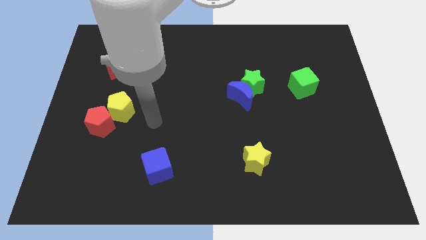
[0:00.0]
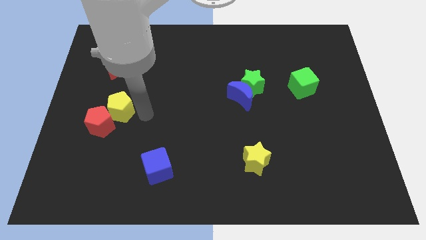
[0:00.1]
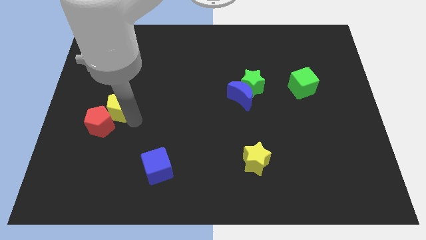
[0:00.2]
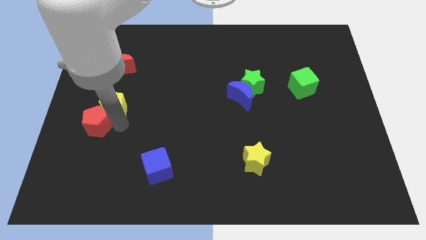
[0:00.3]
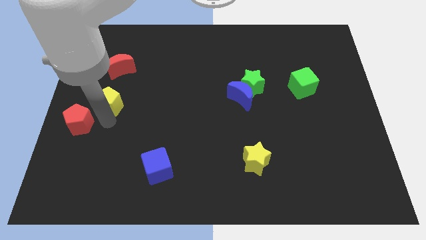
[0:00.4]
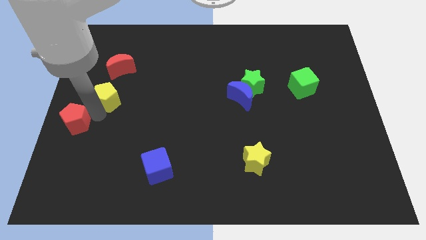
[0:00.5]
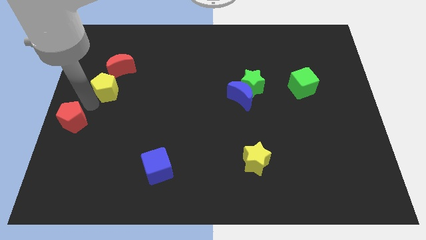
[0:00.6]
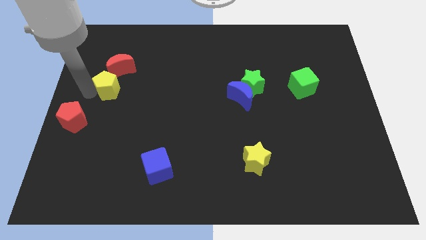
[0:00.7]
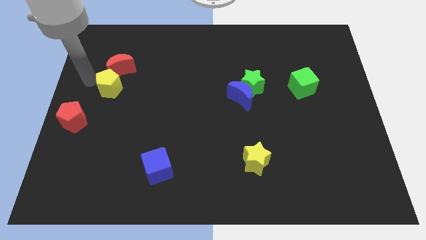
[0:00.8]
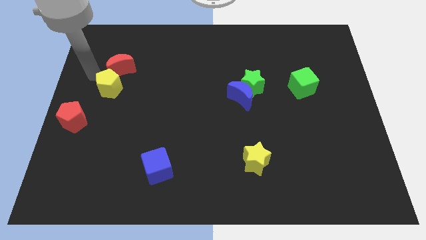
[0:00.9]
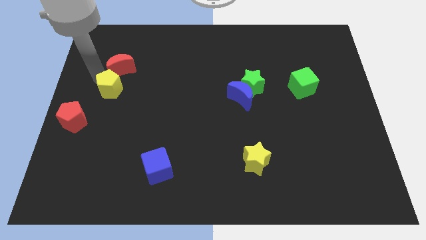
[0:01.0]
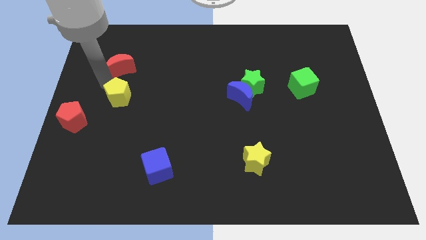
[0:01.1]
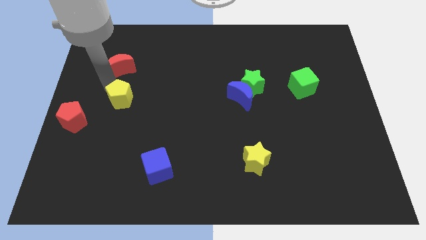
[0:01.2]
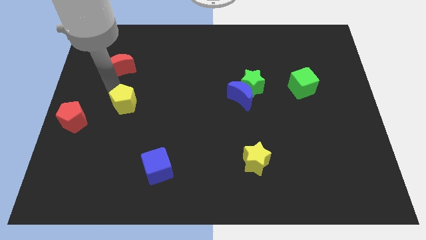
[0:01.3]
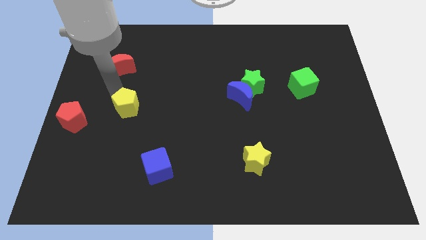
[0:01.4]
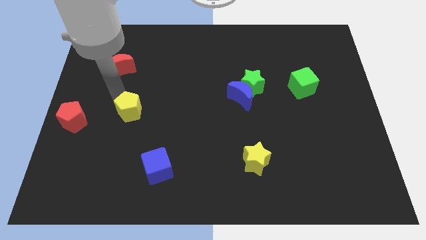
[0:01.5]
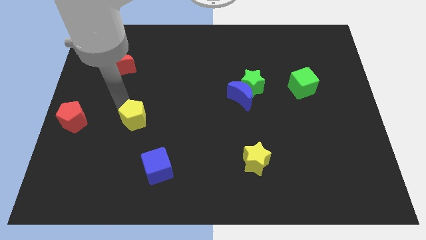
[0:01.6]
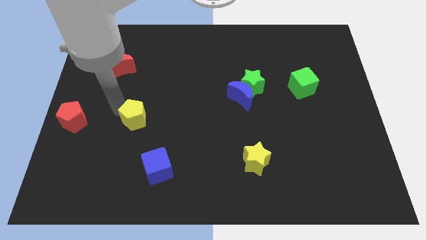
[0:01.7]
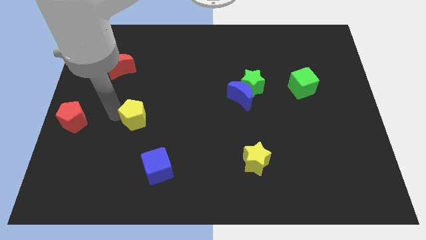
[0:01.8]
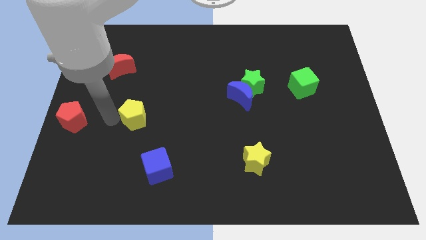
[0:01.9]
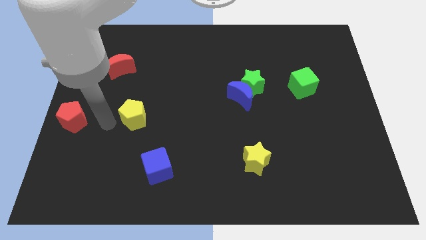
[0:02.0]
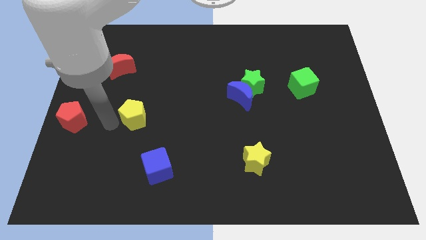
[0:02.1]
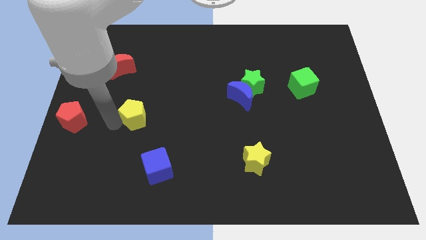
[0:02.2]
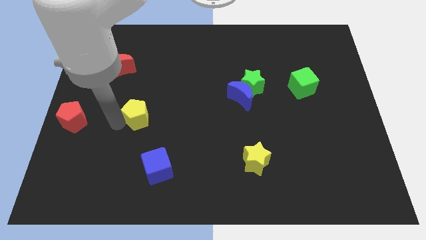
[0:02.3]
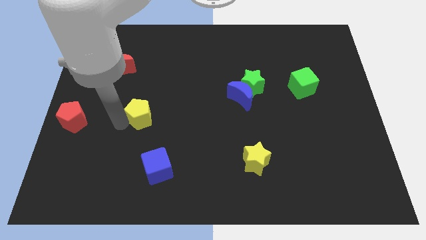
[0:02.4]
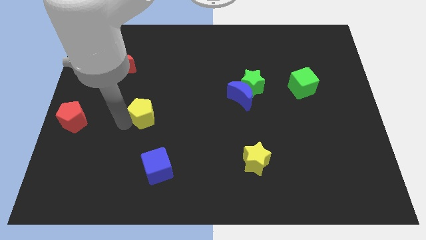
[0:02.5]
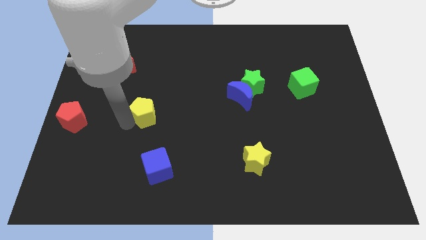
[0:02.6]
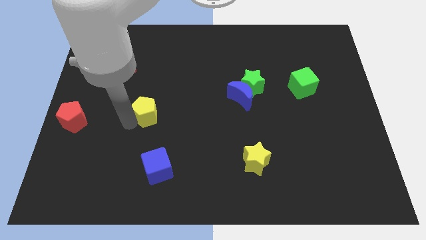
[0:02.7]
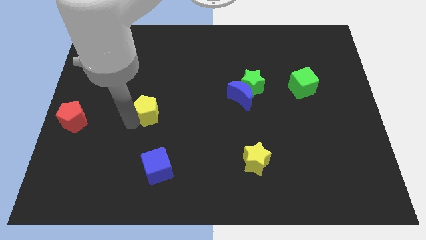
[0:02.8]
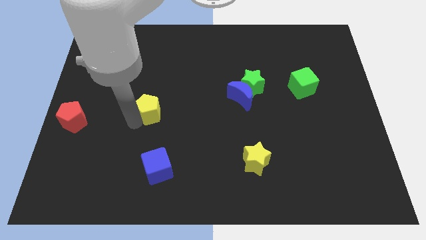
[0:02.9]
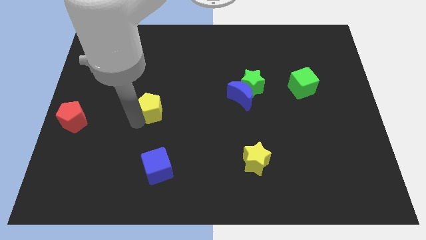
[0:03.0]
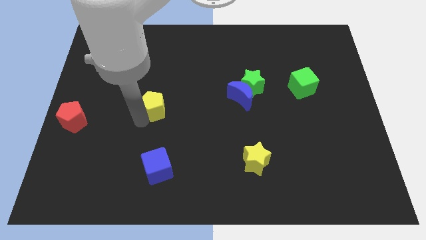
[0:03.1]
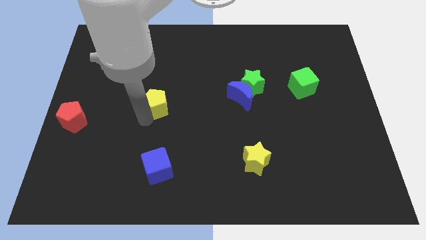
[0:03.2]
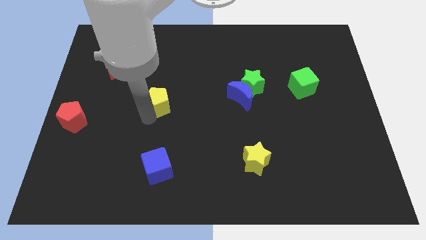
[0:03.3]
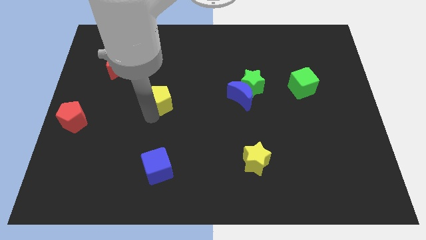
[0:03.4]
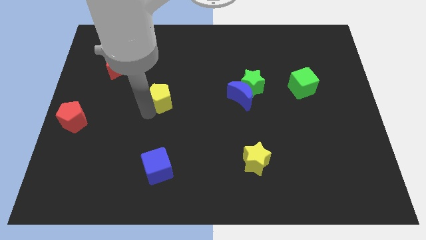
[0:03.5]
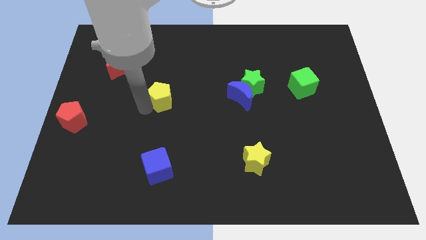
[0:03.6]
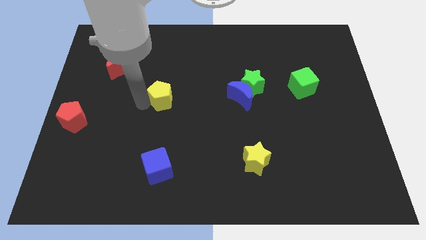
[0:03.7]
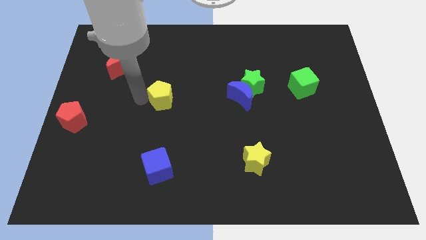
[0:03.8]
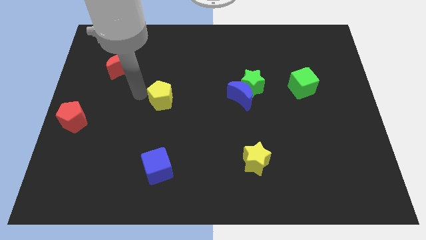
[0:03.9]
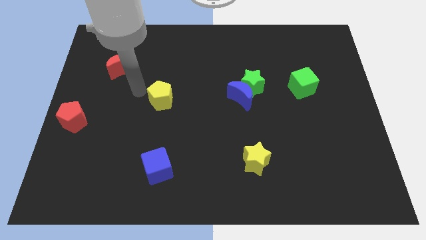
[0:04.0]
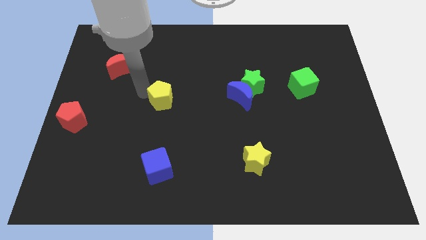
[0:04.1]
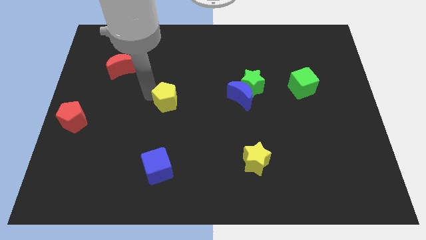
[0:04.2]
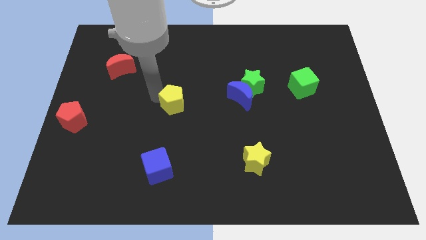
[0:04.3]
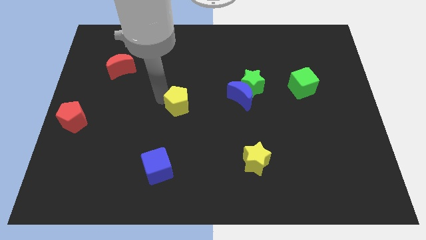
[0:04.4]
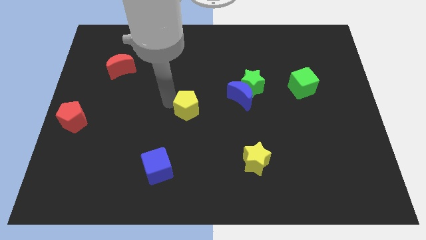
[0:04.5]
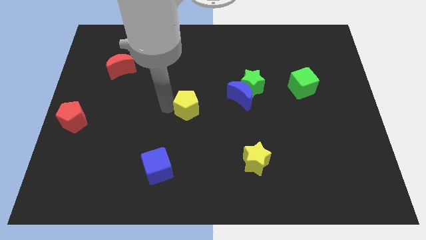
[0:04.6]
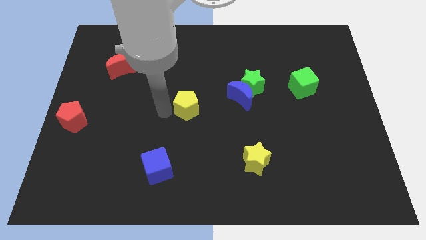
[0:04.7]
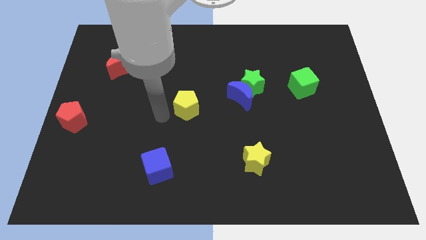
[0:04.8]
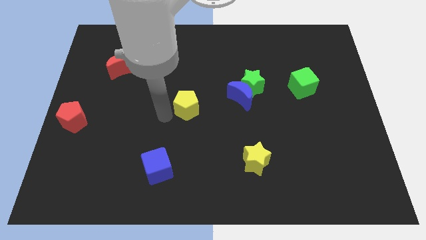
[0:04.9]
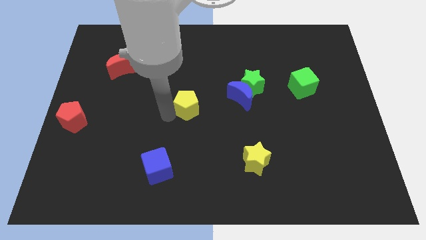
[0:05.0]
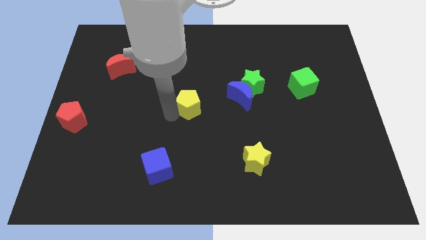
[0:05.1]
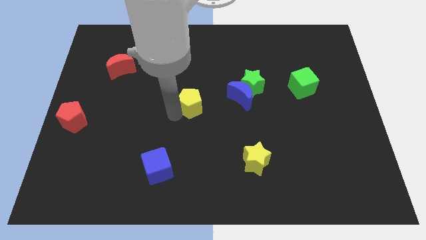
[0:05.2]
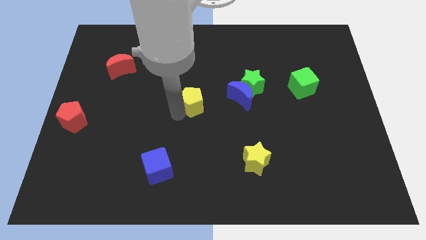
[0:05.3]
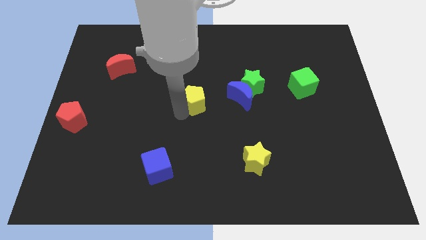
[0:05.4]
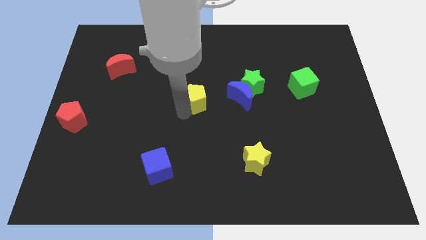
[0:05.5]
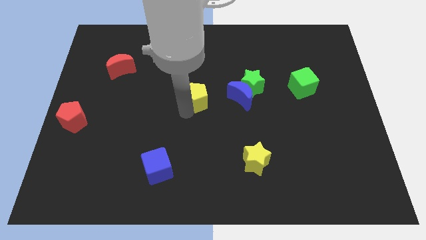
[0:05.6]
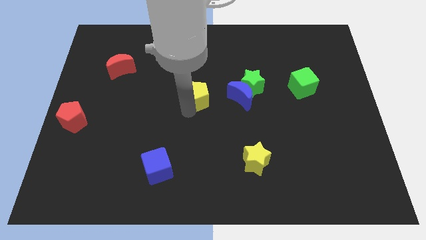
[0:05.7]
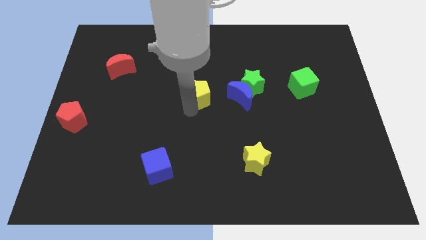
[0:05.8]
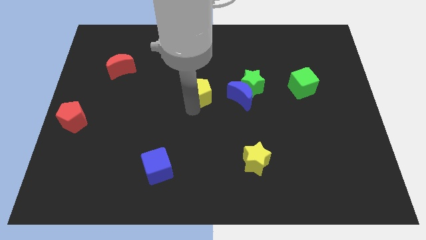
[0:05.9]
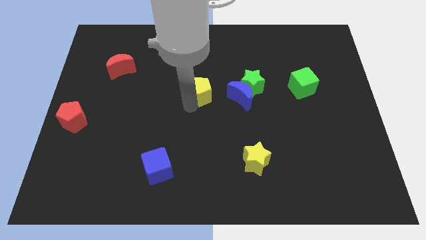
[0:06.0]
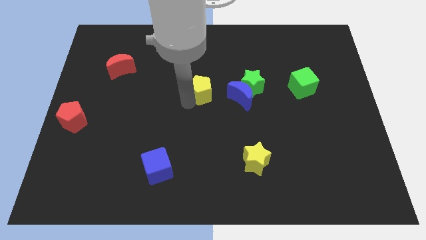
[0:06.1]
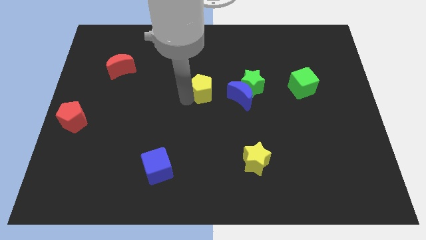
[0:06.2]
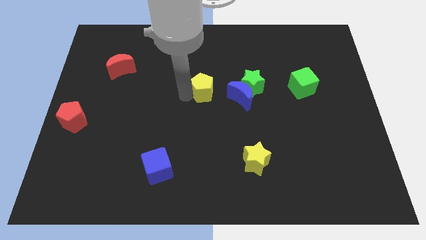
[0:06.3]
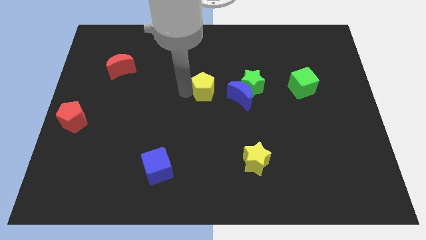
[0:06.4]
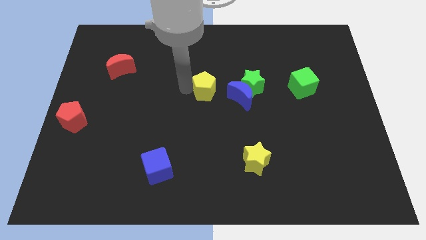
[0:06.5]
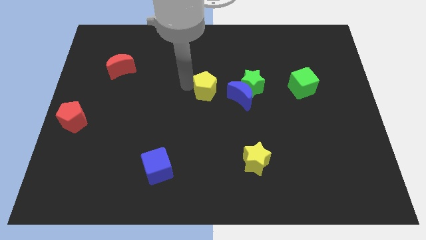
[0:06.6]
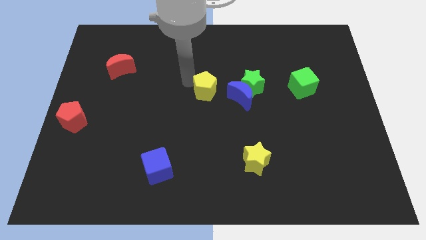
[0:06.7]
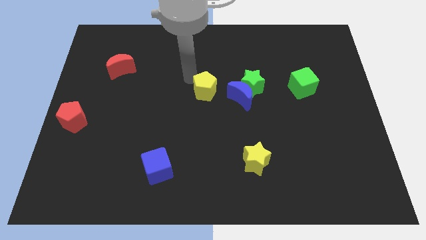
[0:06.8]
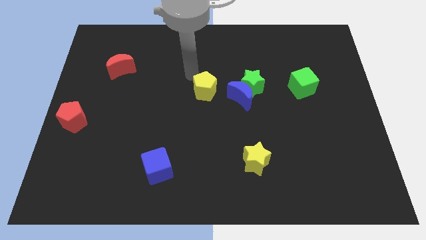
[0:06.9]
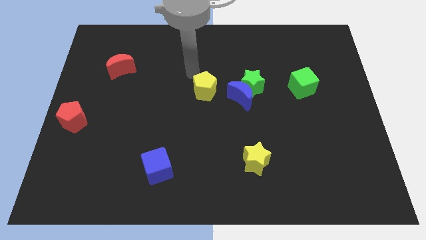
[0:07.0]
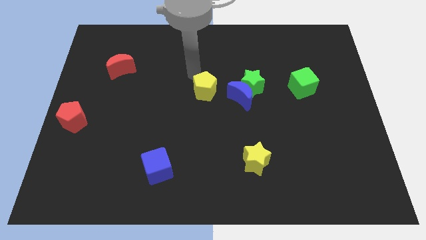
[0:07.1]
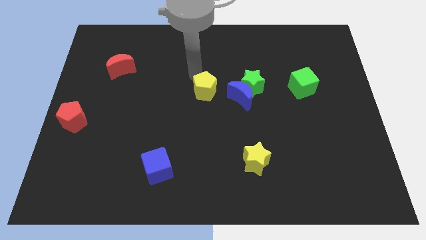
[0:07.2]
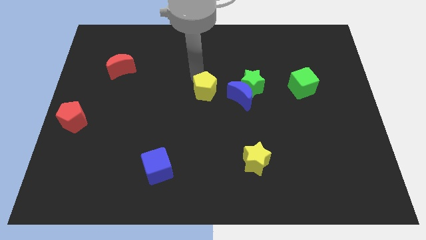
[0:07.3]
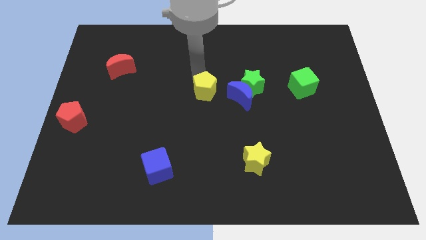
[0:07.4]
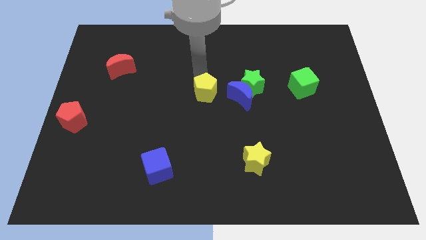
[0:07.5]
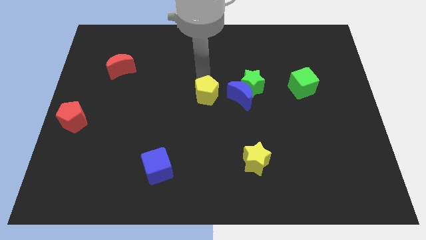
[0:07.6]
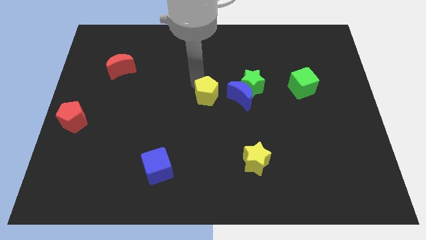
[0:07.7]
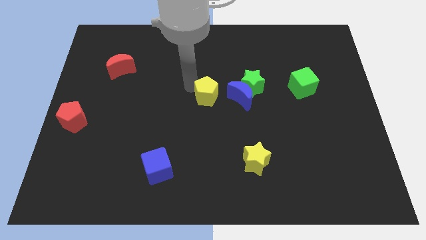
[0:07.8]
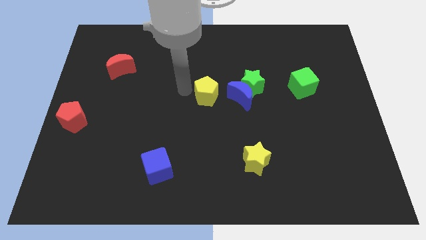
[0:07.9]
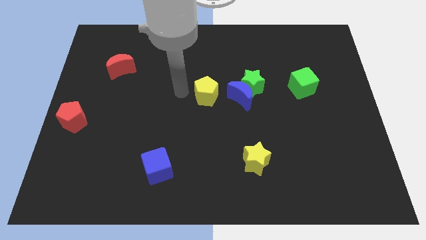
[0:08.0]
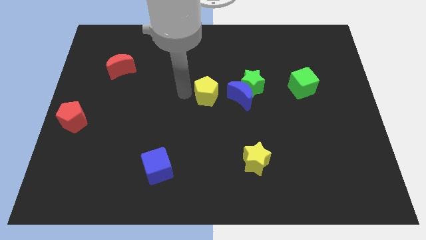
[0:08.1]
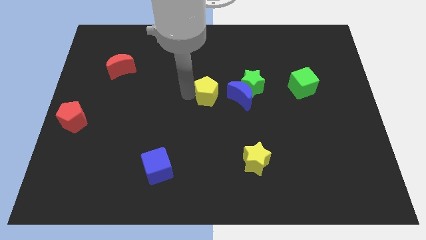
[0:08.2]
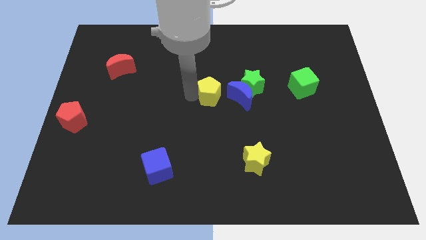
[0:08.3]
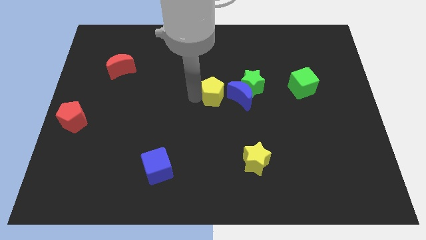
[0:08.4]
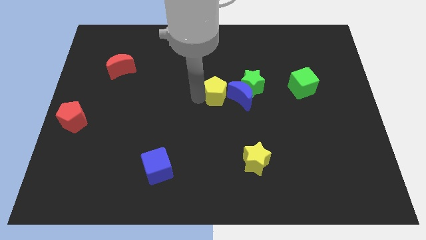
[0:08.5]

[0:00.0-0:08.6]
move the yellow pentagon to the blue moon
